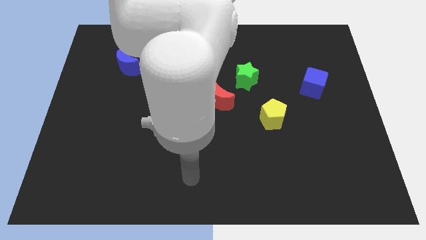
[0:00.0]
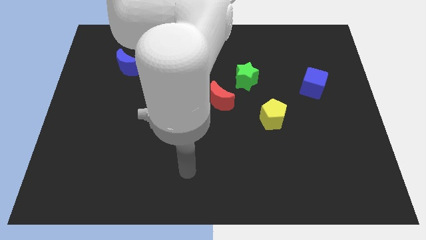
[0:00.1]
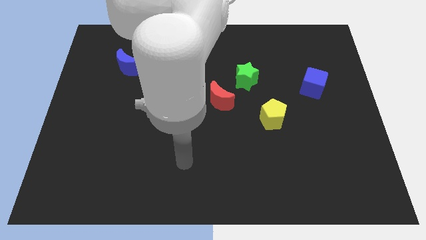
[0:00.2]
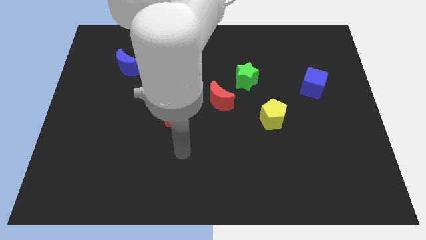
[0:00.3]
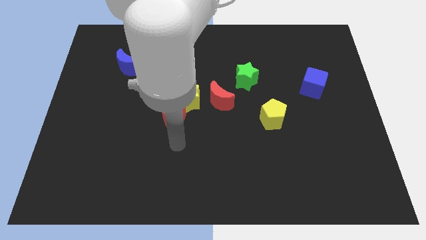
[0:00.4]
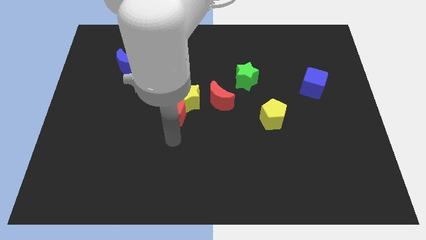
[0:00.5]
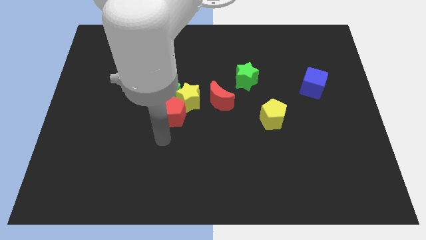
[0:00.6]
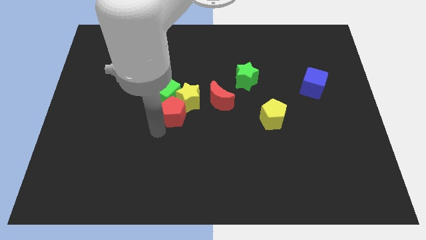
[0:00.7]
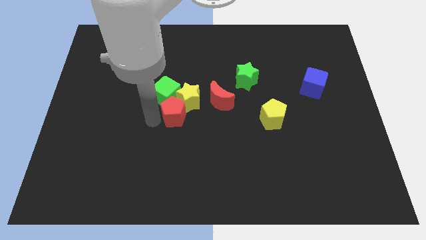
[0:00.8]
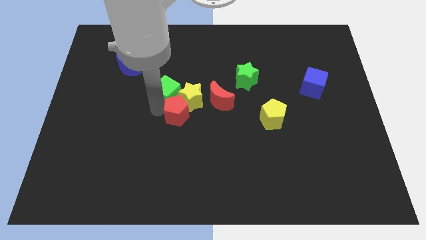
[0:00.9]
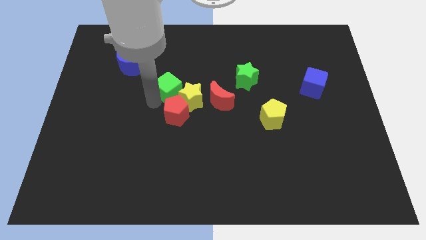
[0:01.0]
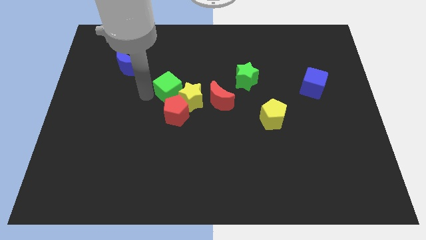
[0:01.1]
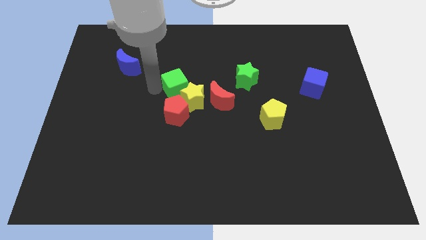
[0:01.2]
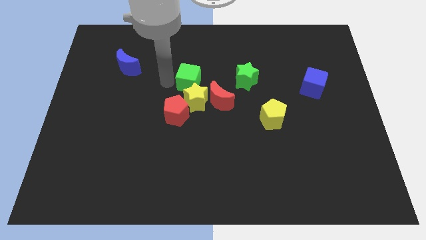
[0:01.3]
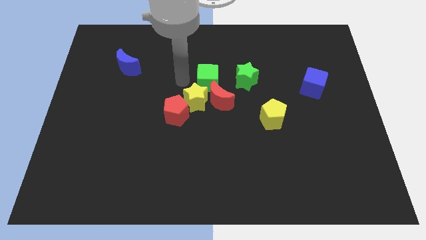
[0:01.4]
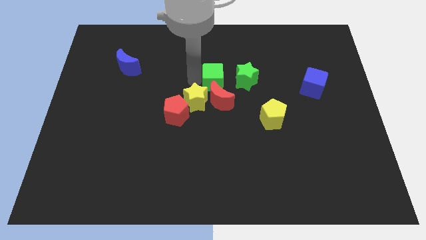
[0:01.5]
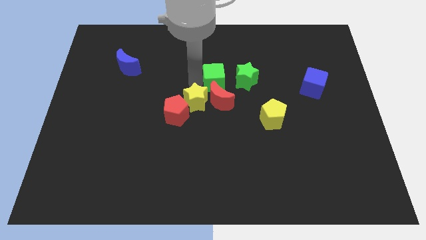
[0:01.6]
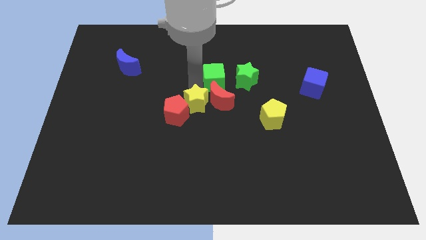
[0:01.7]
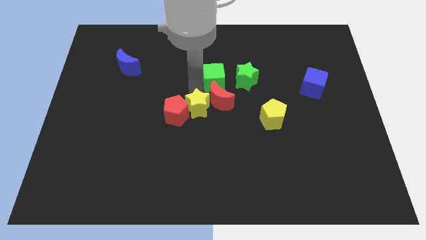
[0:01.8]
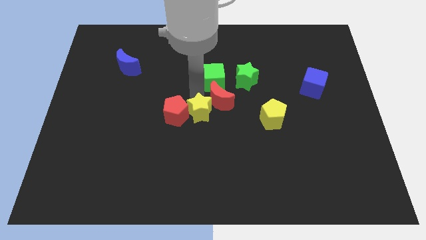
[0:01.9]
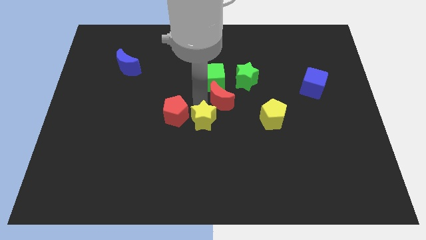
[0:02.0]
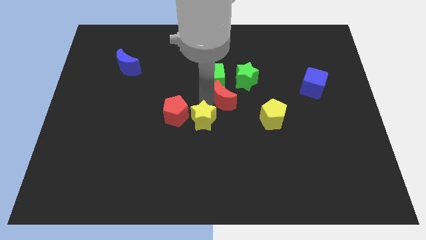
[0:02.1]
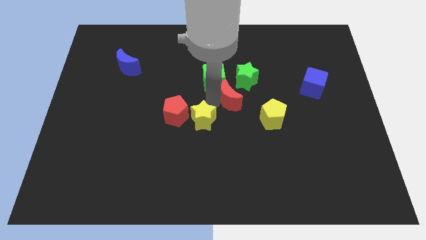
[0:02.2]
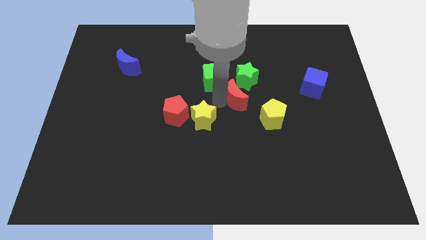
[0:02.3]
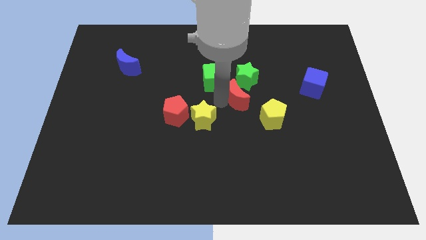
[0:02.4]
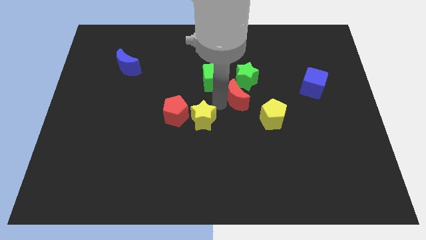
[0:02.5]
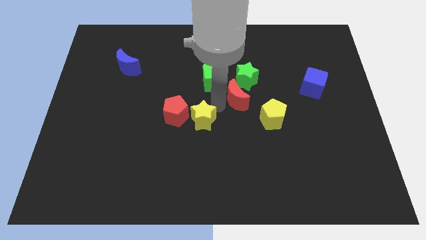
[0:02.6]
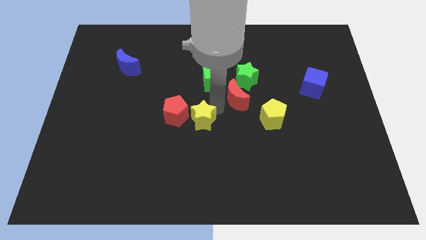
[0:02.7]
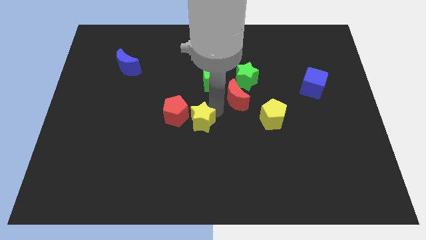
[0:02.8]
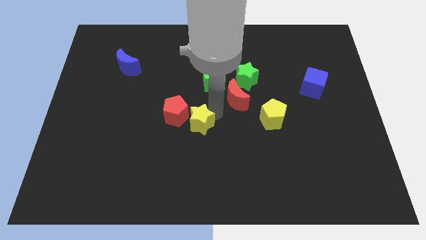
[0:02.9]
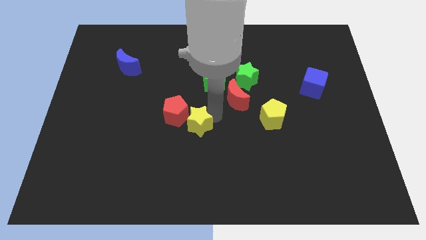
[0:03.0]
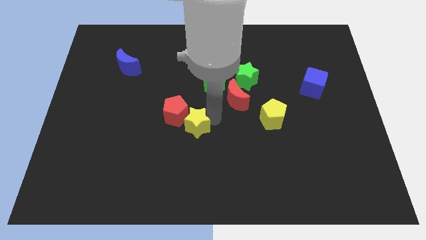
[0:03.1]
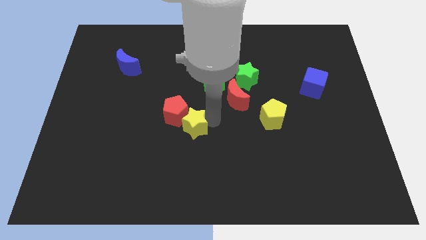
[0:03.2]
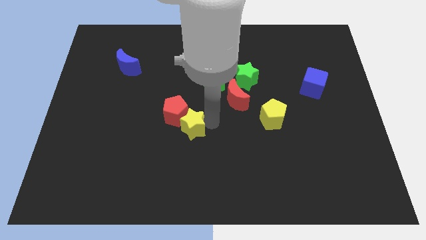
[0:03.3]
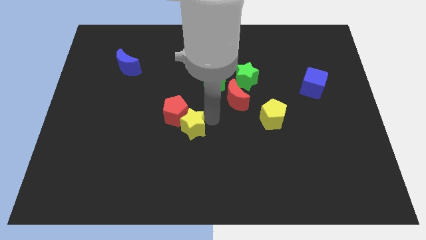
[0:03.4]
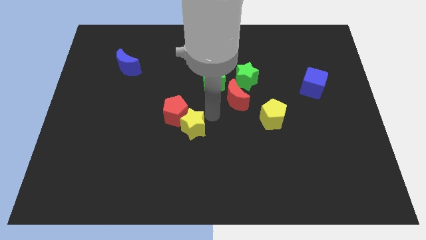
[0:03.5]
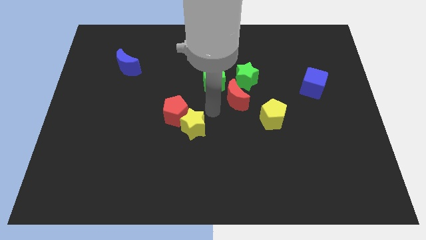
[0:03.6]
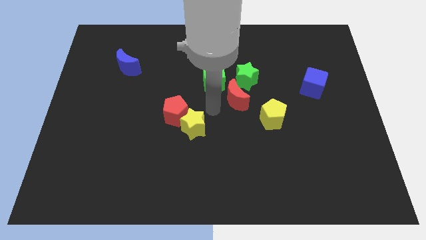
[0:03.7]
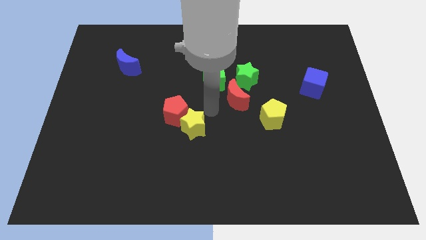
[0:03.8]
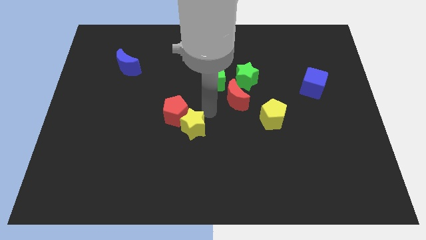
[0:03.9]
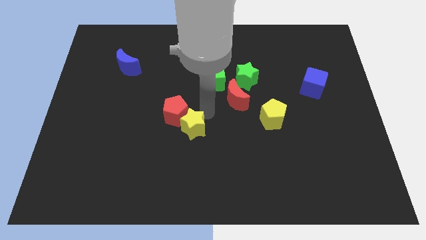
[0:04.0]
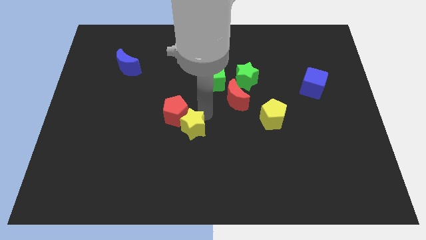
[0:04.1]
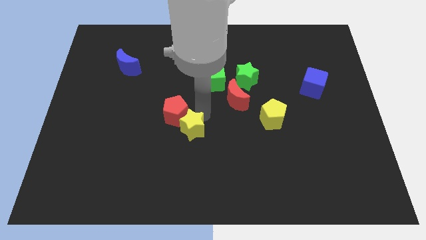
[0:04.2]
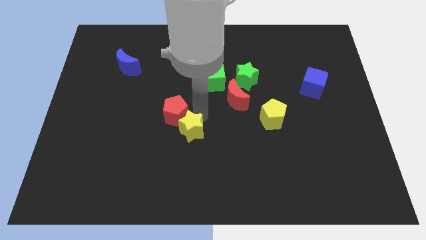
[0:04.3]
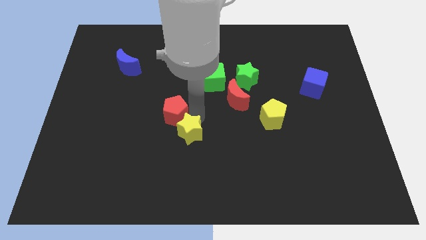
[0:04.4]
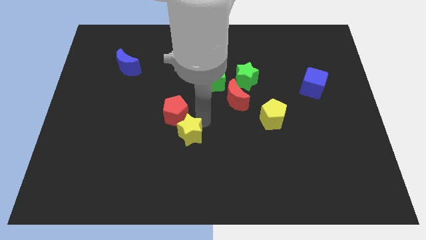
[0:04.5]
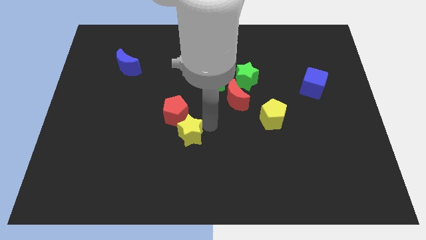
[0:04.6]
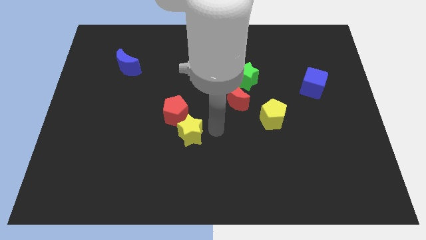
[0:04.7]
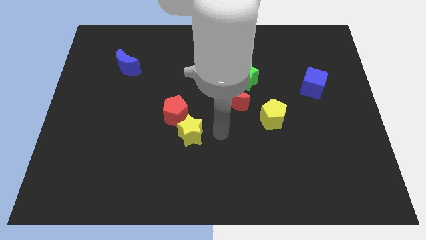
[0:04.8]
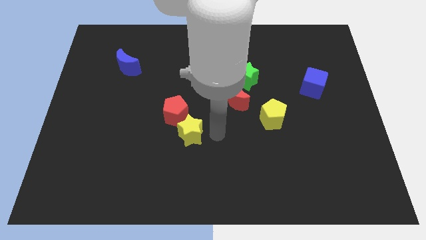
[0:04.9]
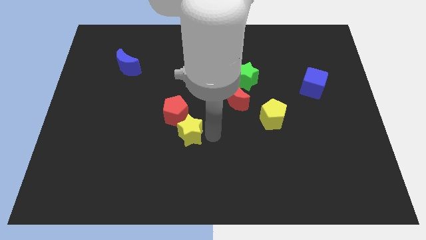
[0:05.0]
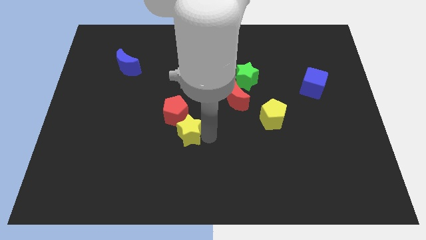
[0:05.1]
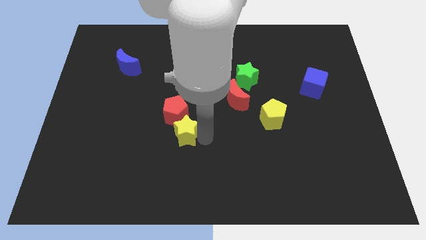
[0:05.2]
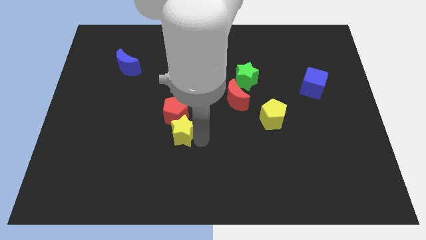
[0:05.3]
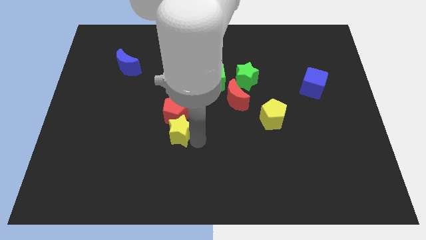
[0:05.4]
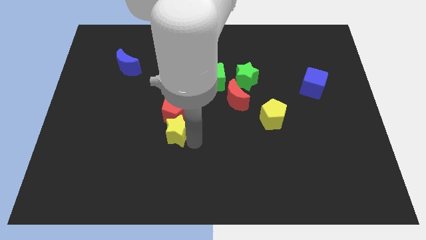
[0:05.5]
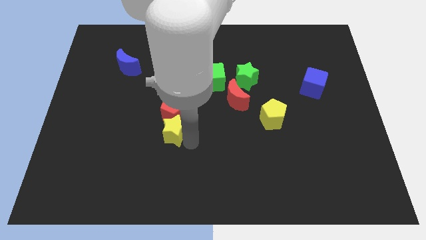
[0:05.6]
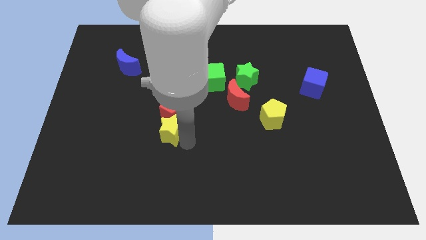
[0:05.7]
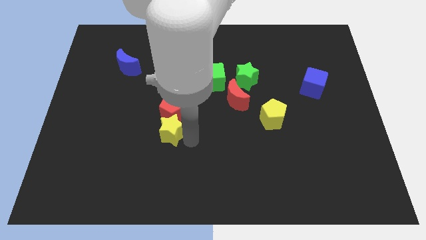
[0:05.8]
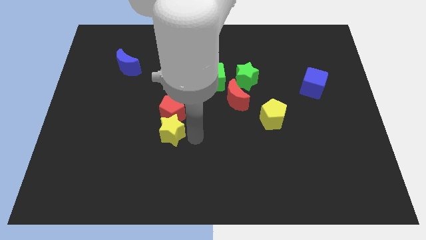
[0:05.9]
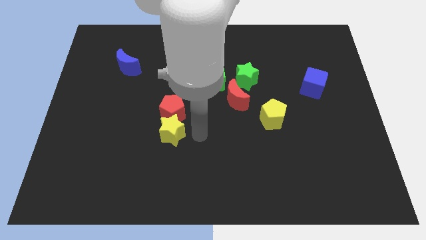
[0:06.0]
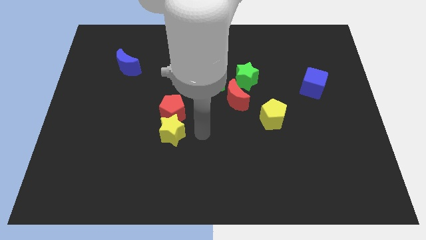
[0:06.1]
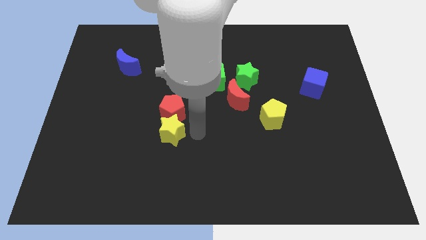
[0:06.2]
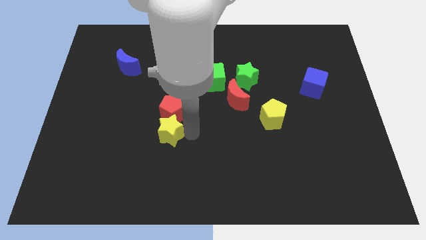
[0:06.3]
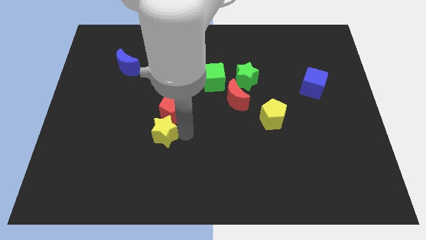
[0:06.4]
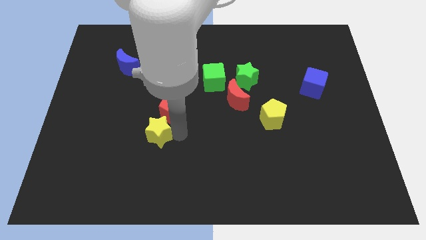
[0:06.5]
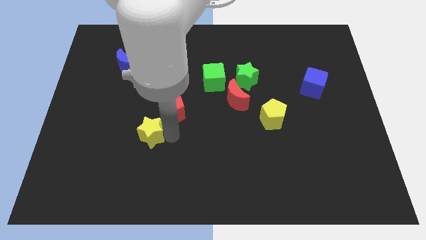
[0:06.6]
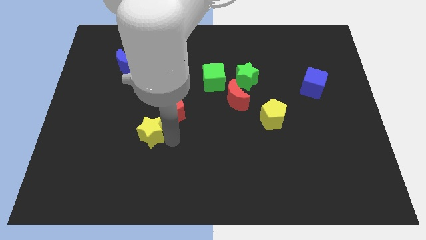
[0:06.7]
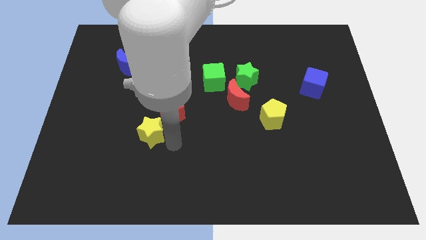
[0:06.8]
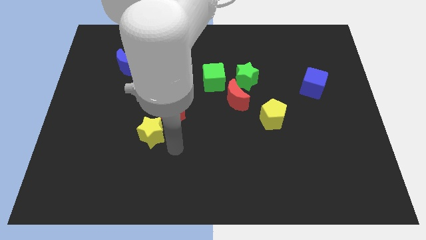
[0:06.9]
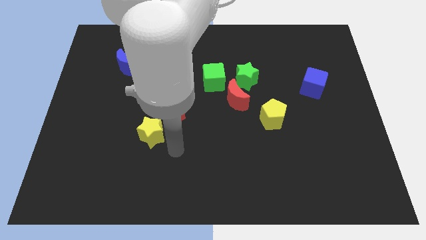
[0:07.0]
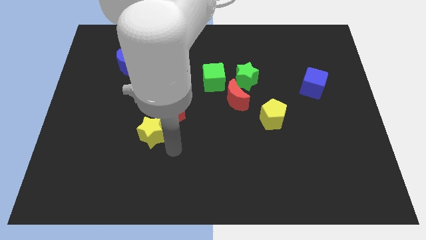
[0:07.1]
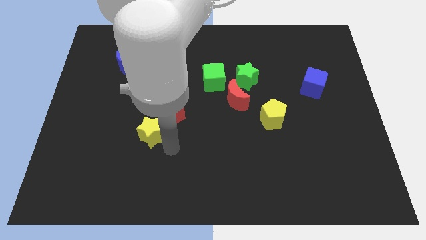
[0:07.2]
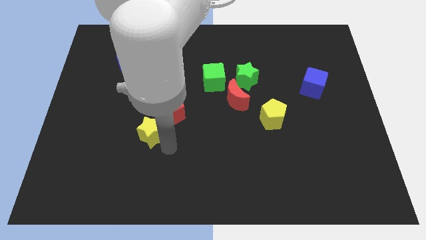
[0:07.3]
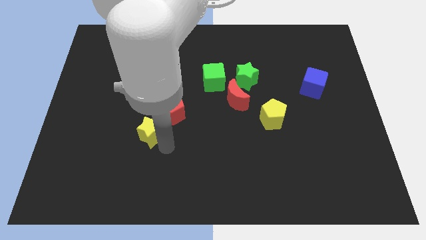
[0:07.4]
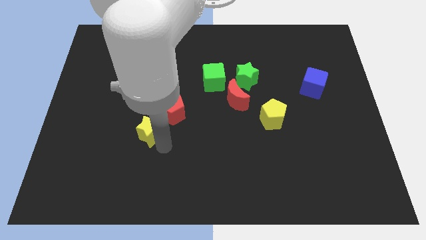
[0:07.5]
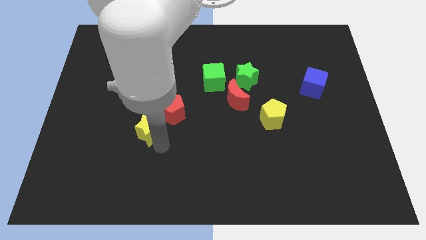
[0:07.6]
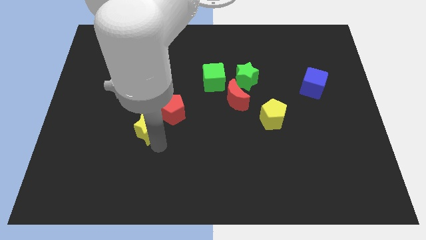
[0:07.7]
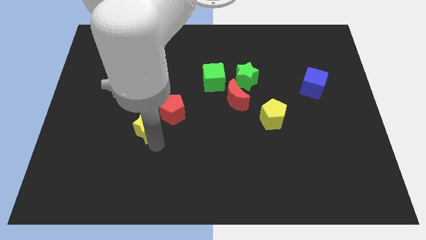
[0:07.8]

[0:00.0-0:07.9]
put the yellow star to the left side of the red pentagon
